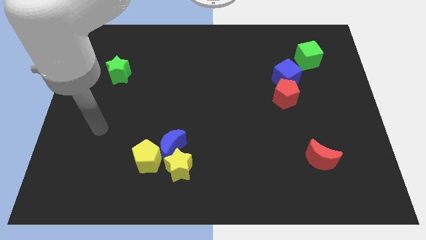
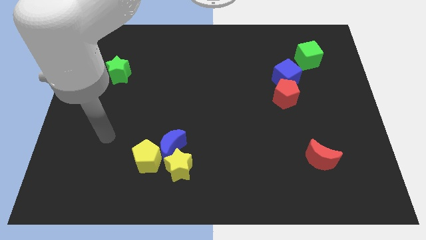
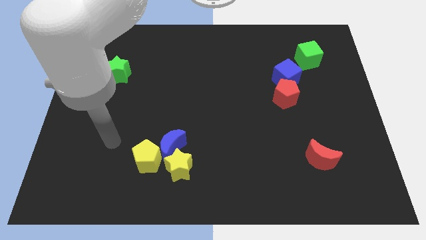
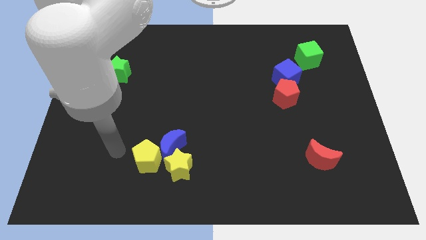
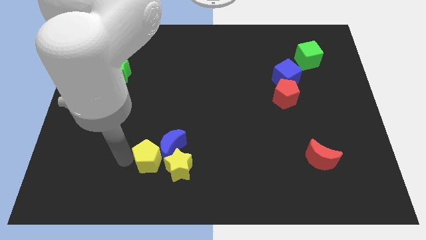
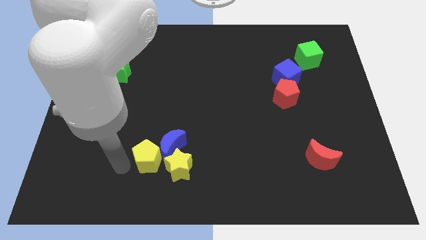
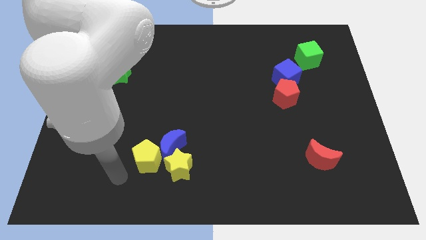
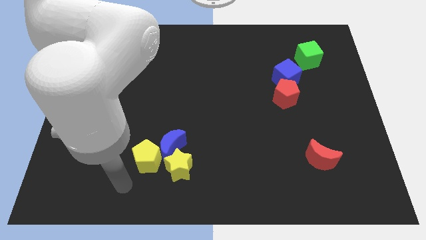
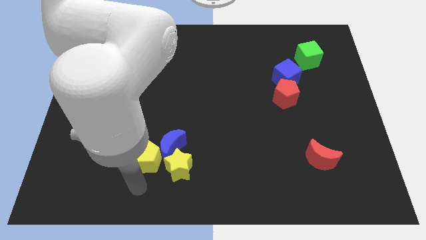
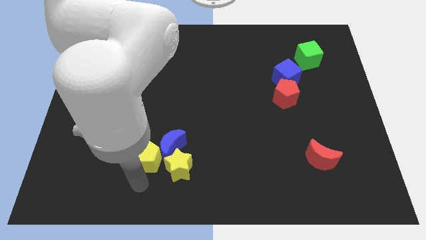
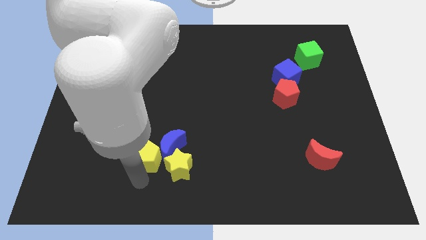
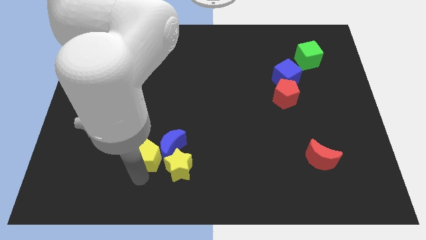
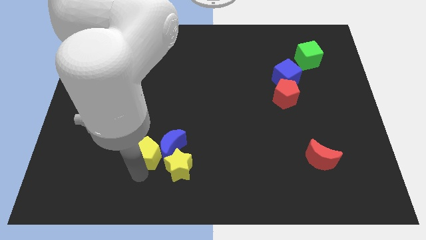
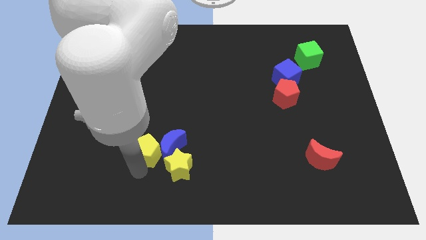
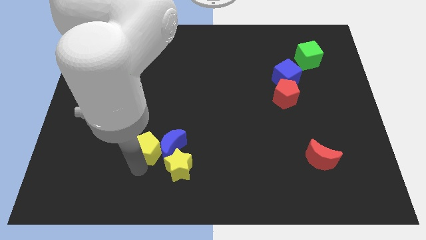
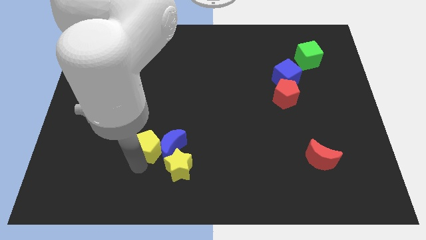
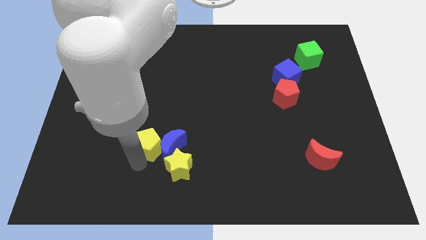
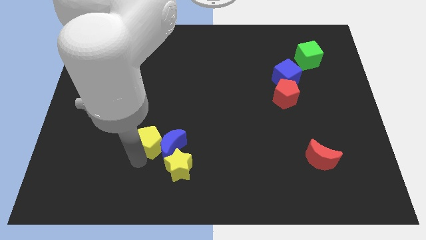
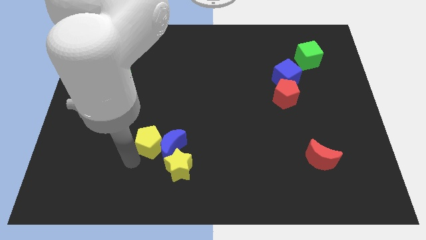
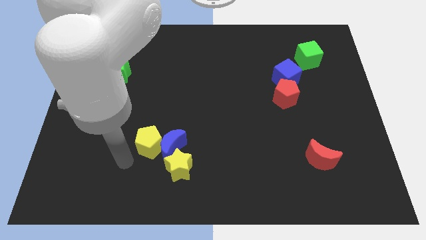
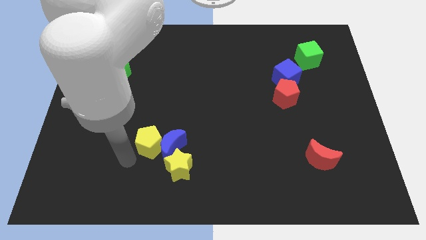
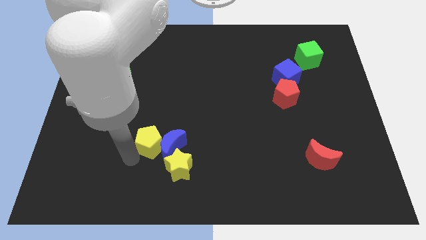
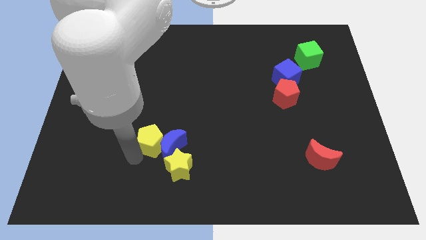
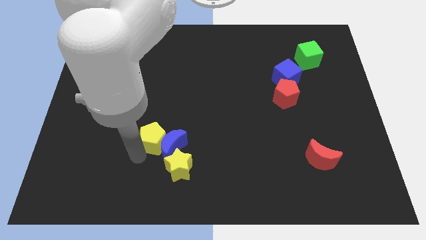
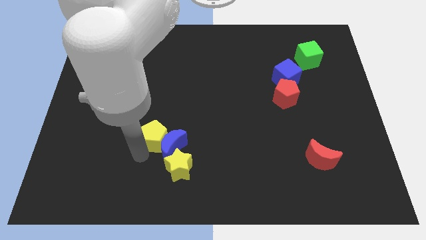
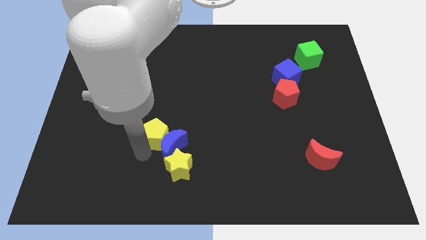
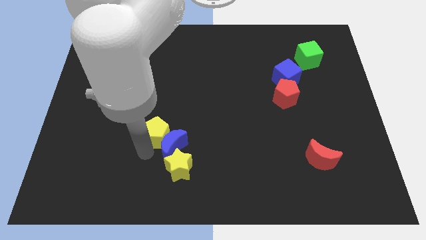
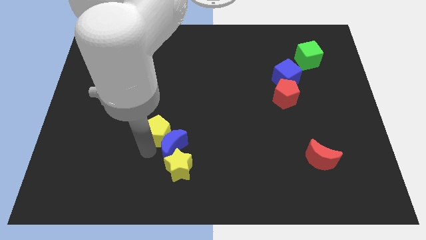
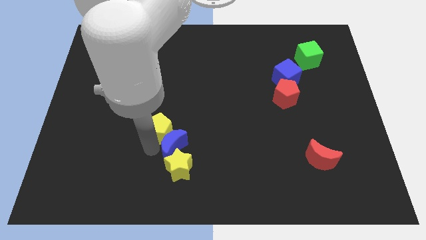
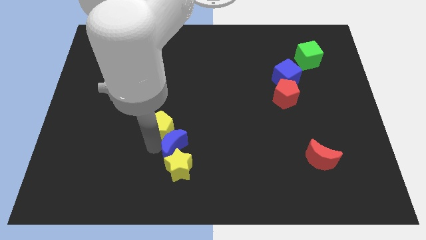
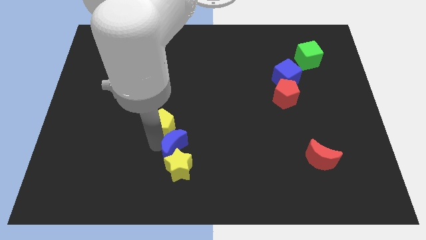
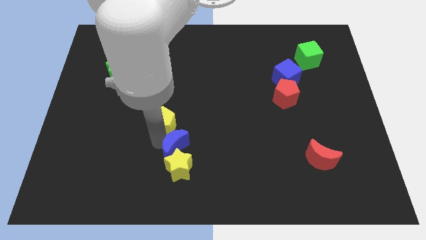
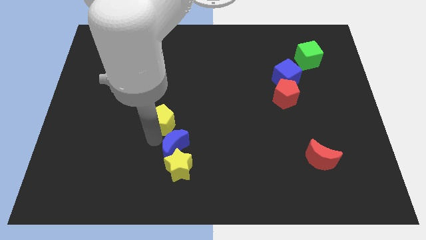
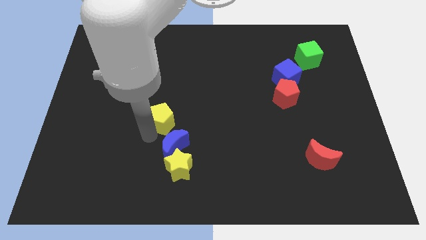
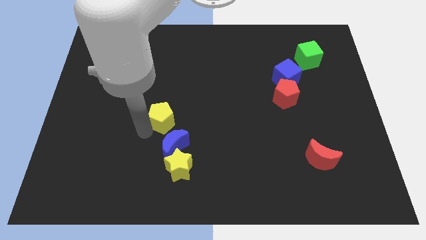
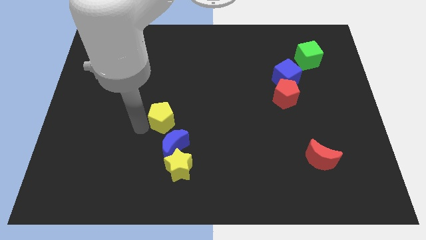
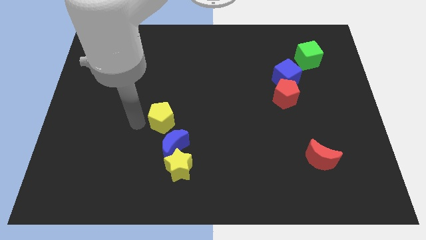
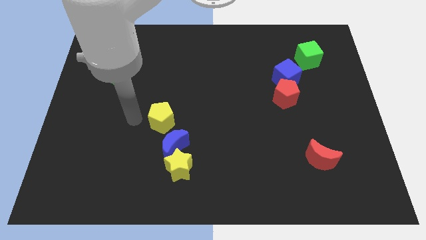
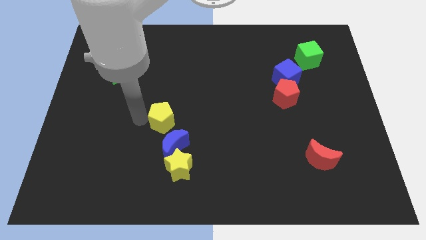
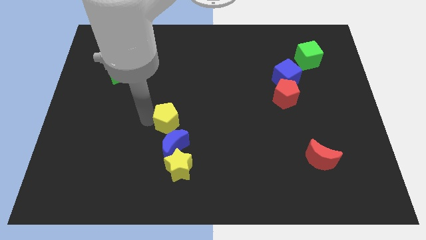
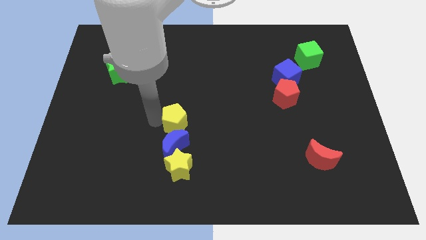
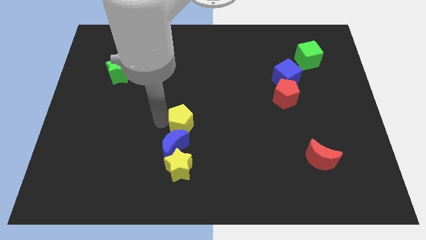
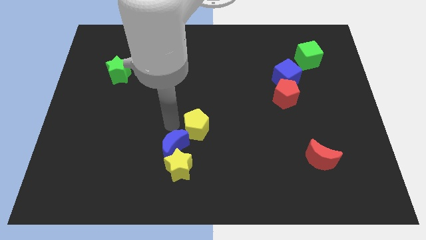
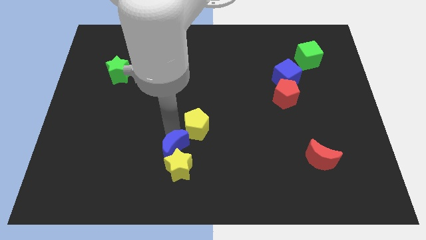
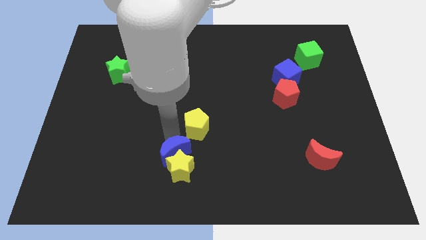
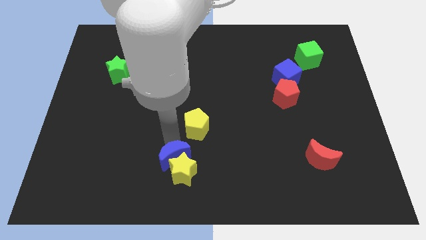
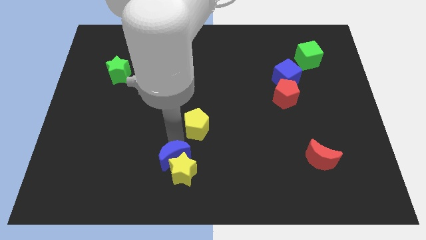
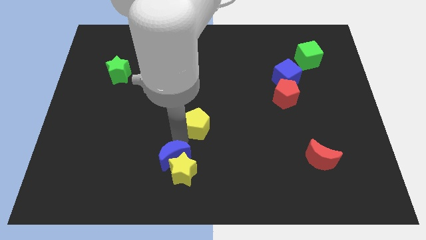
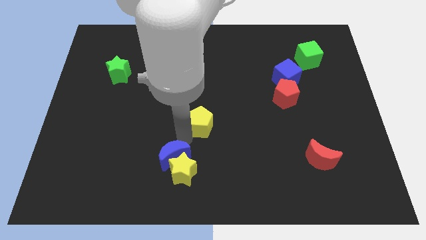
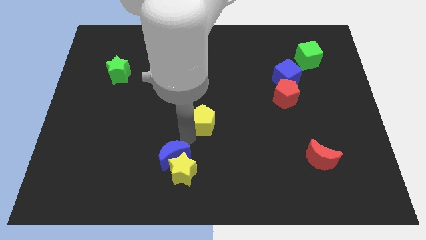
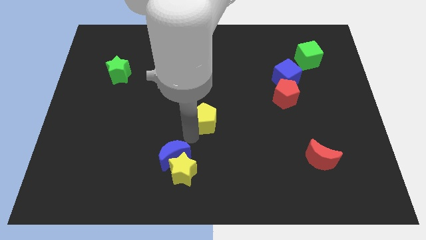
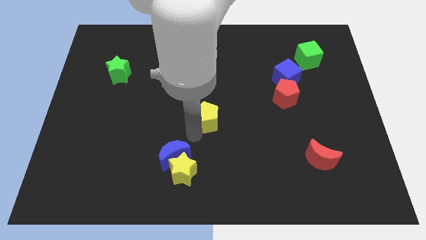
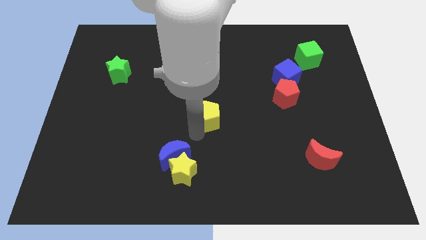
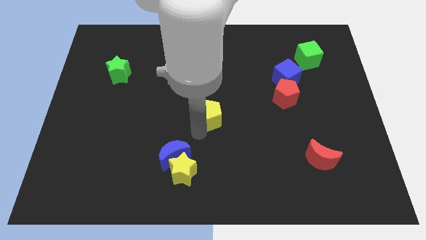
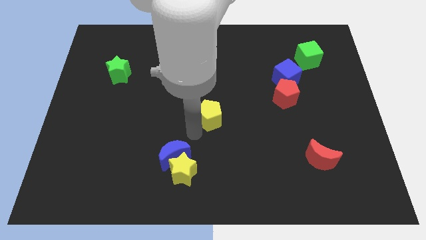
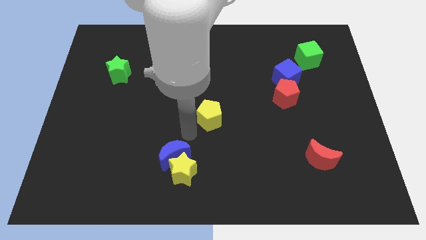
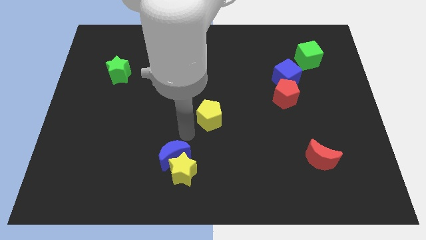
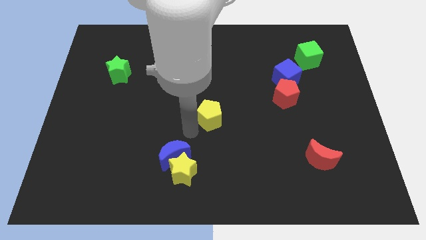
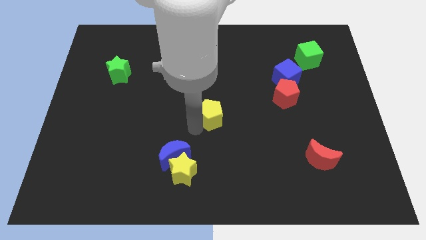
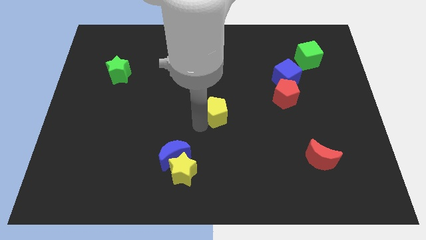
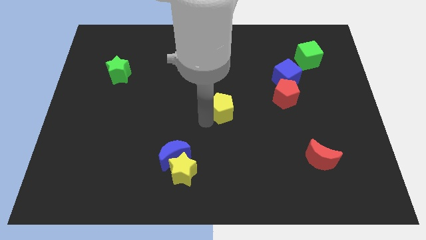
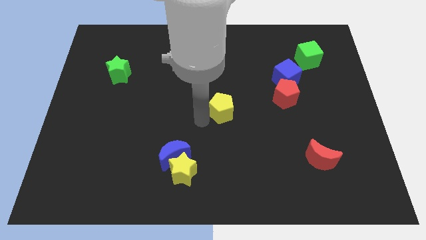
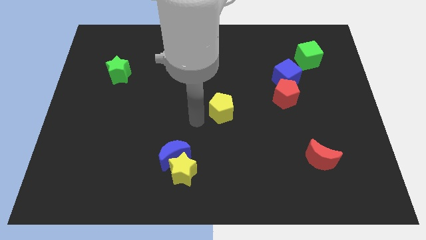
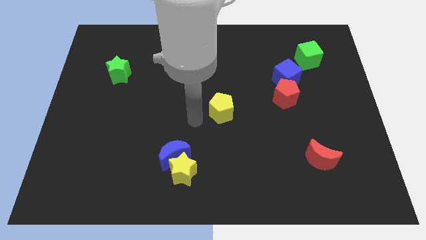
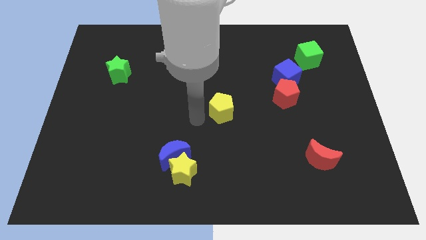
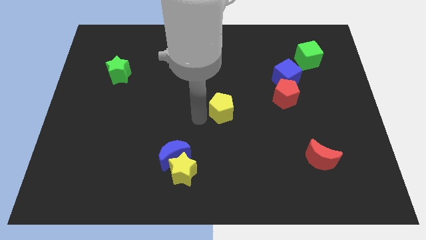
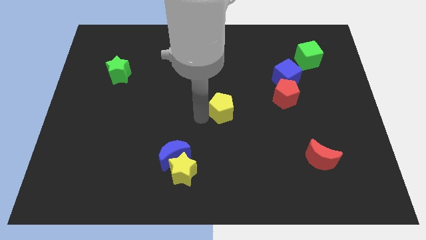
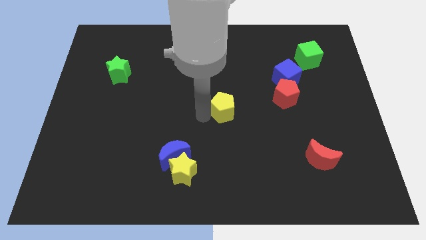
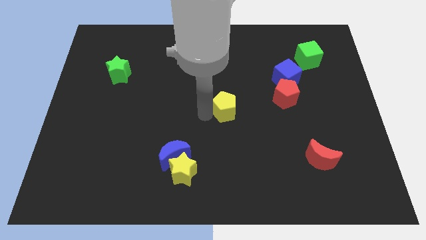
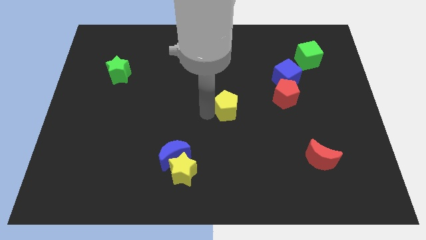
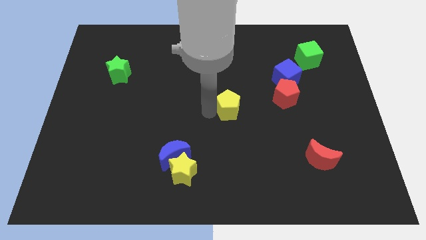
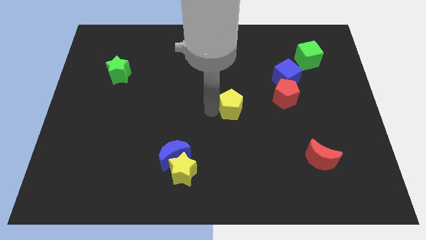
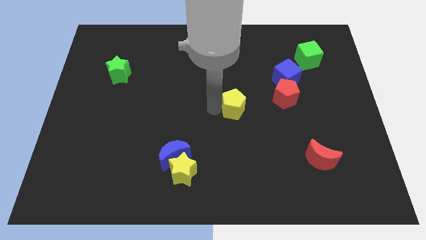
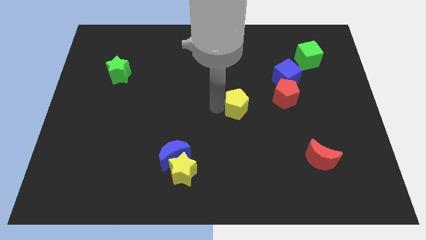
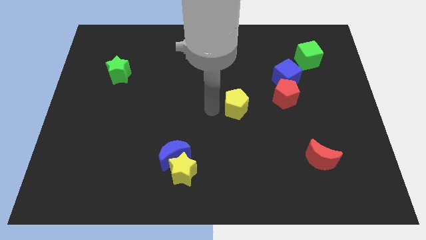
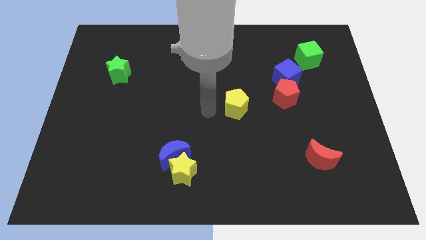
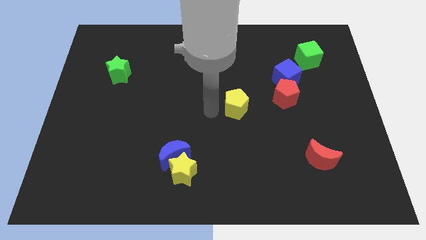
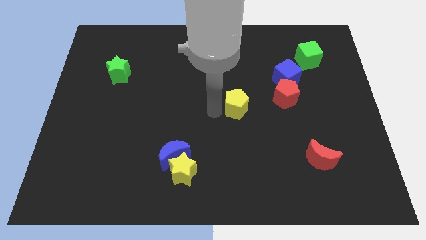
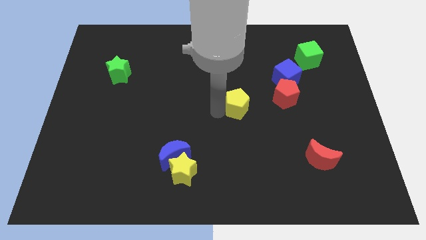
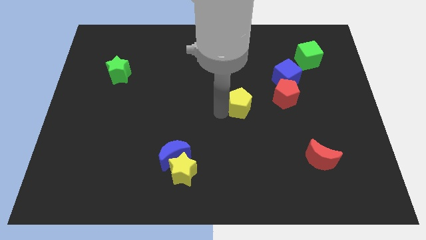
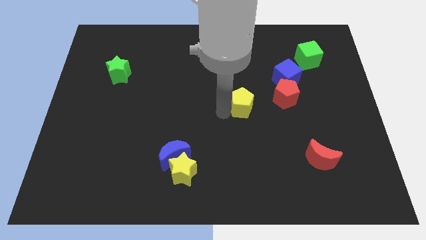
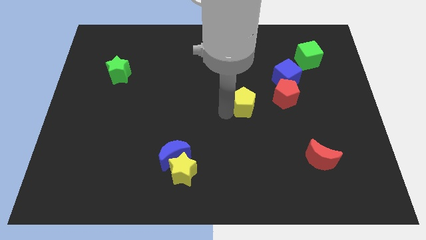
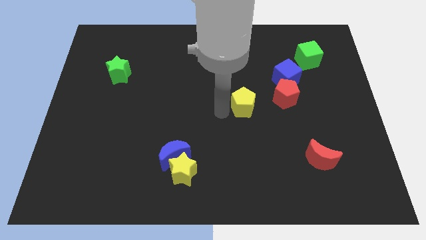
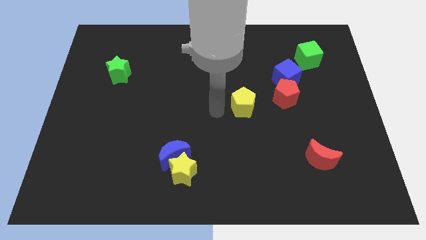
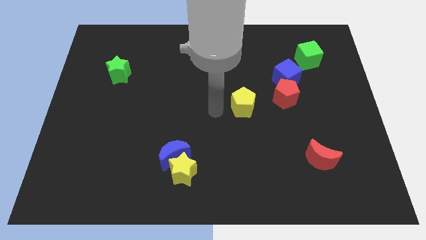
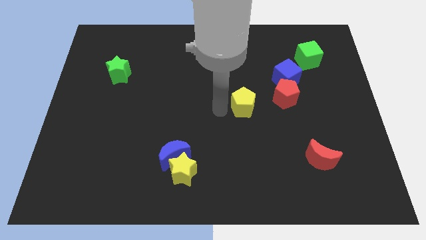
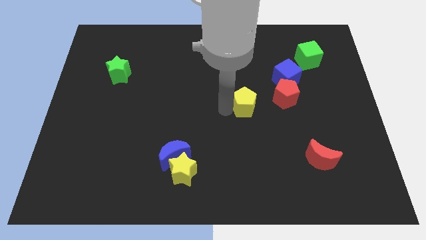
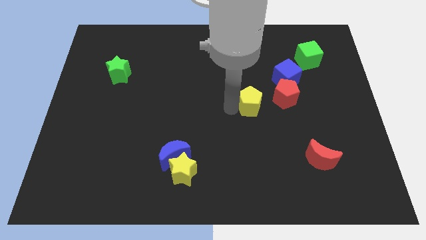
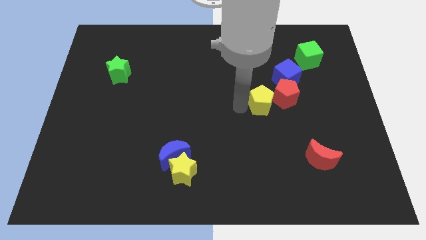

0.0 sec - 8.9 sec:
slide the yellow pentagon towards the red pentagon
